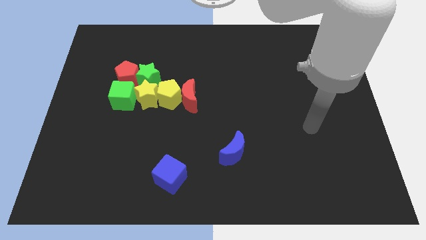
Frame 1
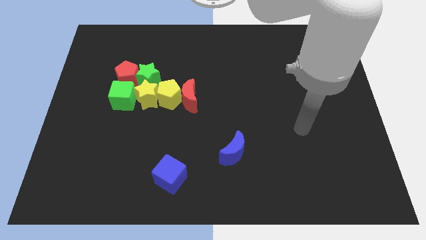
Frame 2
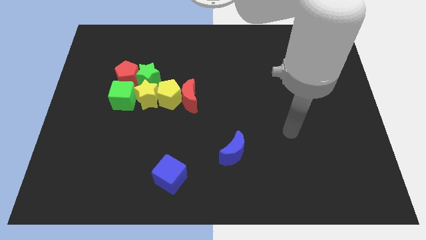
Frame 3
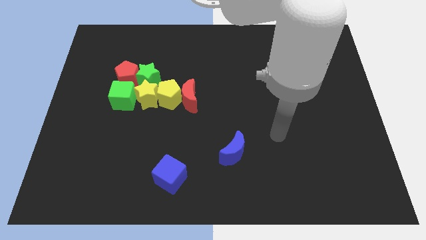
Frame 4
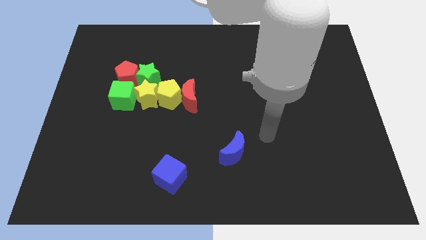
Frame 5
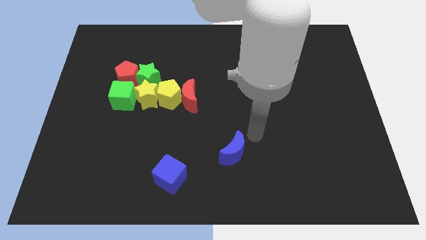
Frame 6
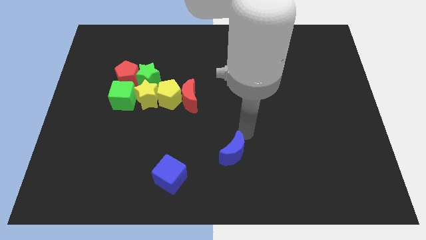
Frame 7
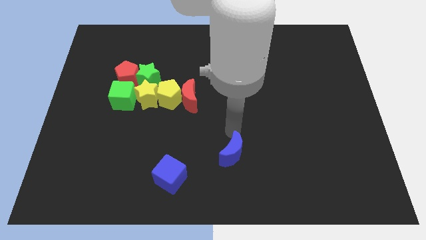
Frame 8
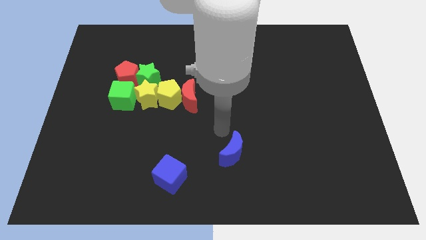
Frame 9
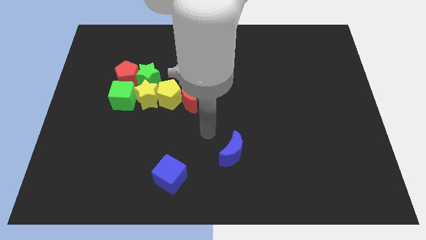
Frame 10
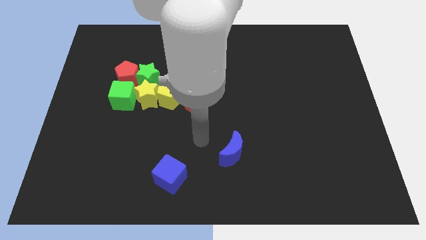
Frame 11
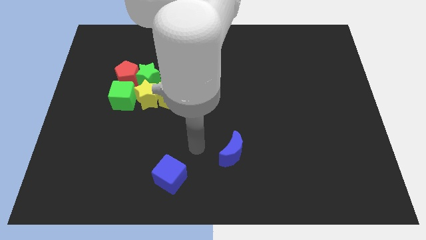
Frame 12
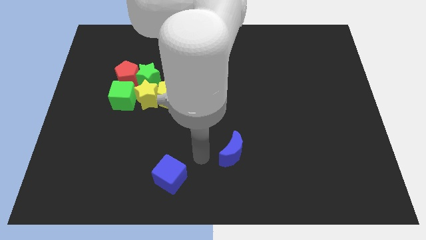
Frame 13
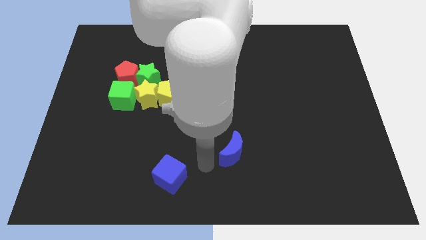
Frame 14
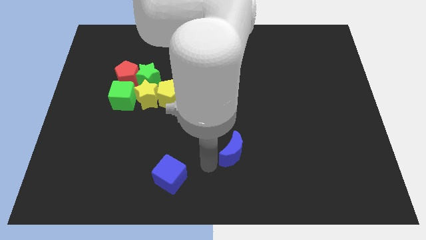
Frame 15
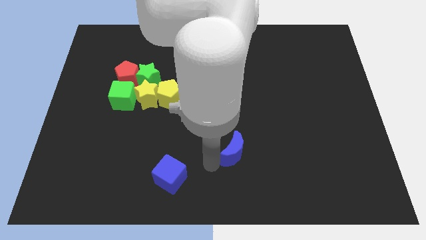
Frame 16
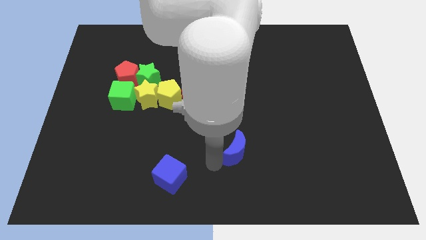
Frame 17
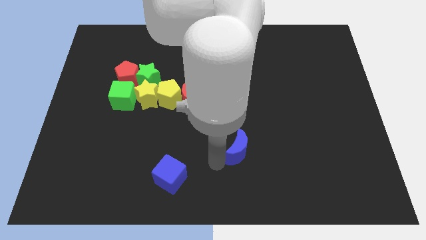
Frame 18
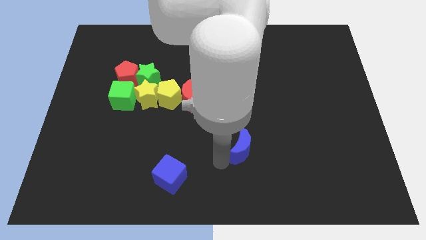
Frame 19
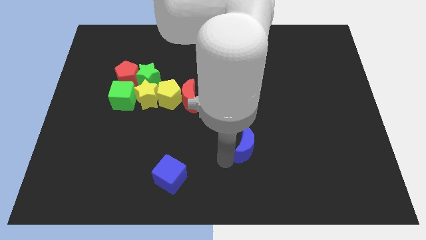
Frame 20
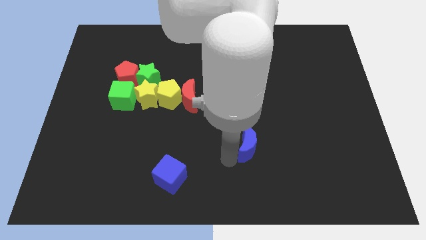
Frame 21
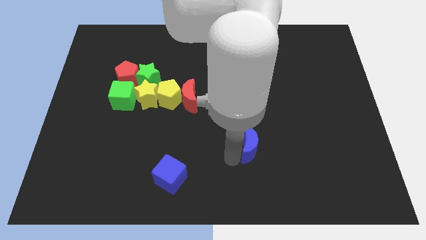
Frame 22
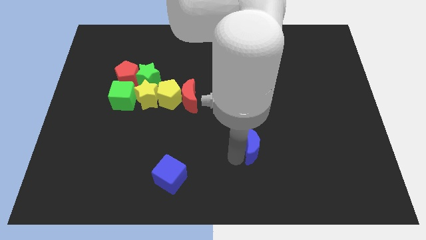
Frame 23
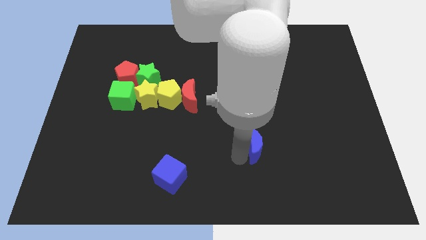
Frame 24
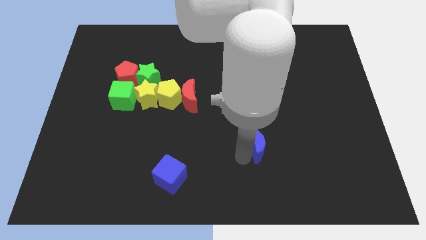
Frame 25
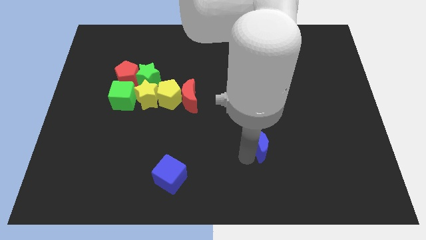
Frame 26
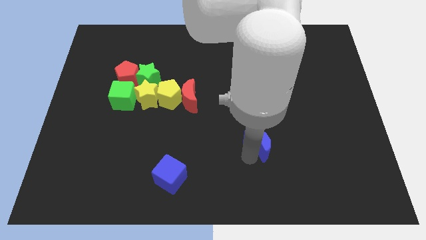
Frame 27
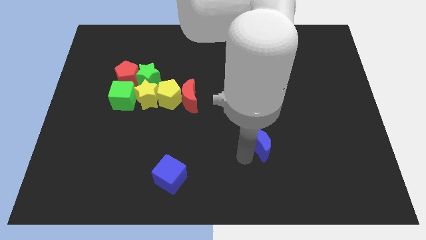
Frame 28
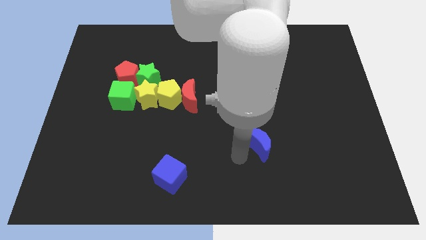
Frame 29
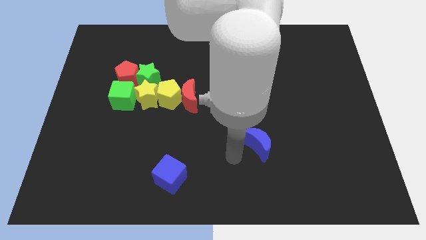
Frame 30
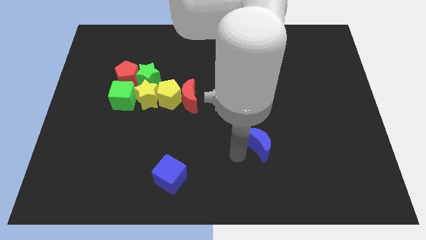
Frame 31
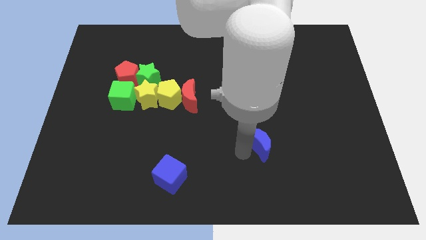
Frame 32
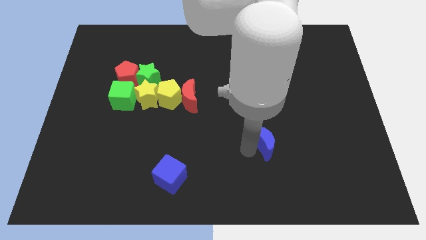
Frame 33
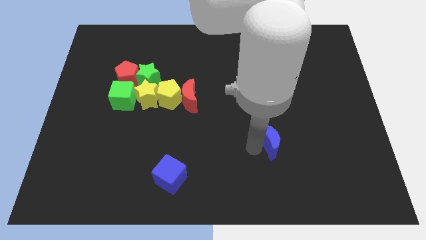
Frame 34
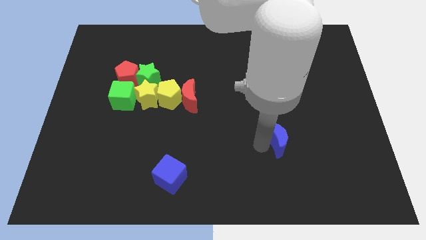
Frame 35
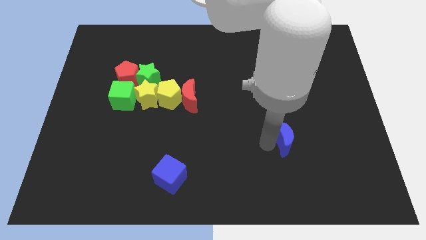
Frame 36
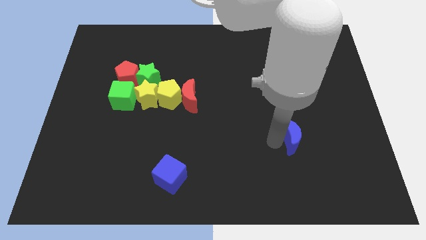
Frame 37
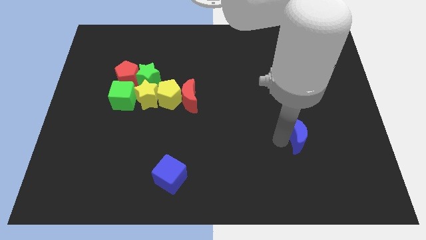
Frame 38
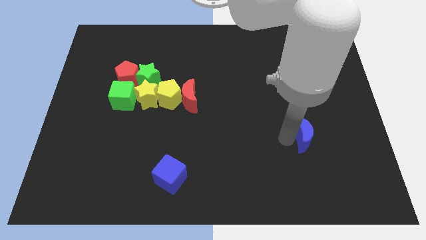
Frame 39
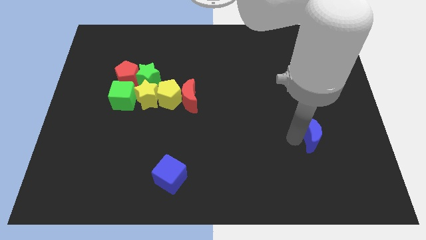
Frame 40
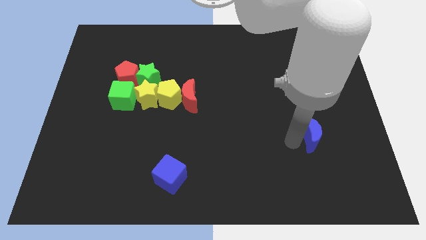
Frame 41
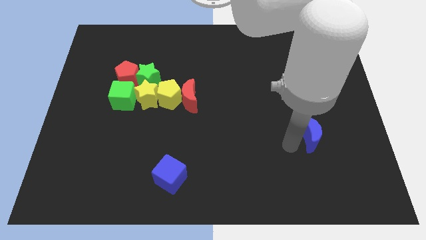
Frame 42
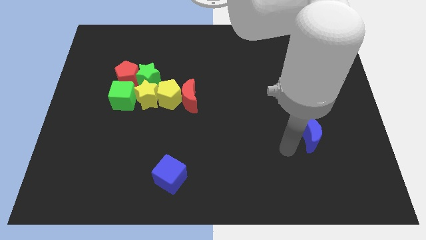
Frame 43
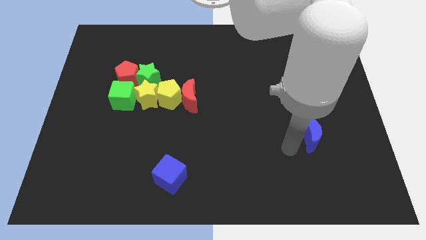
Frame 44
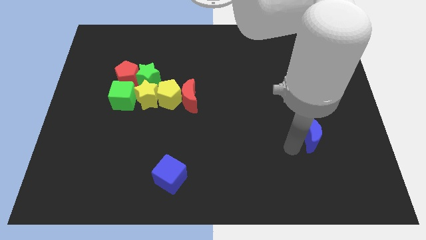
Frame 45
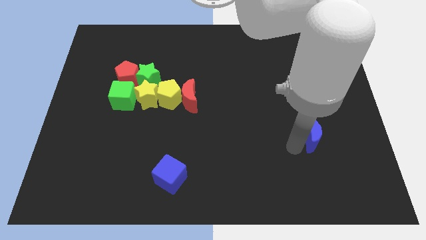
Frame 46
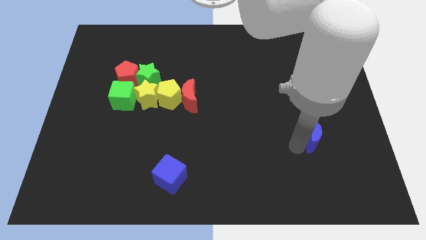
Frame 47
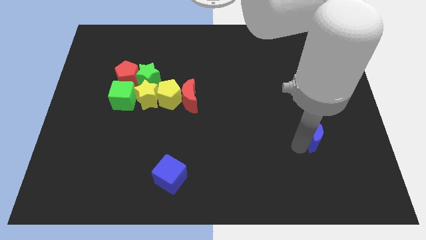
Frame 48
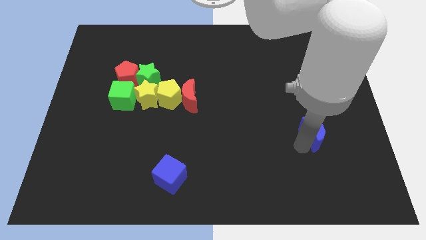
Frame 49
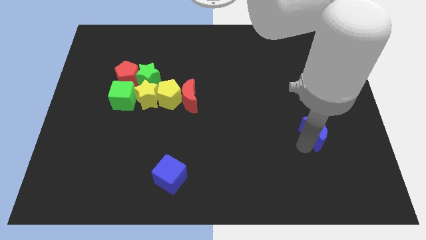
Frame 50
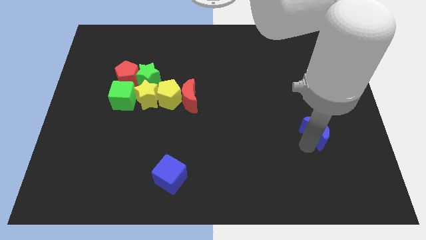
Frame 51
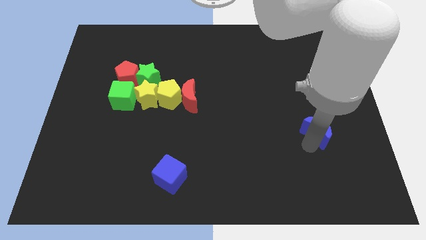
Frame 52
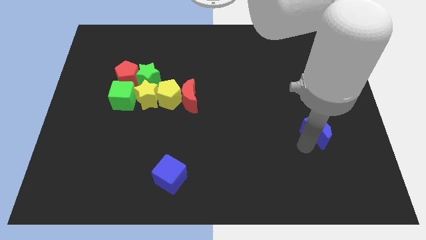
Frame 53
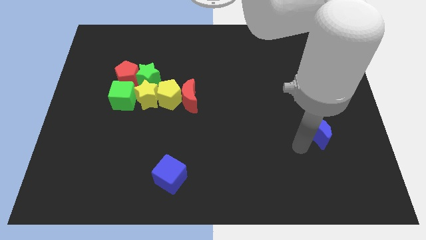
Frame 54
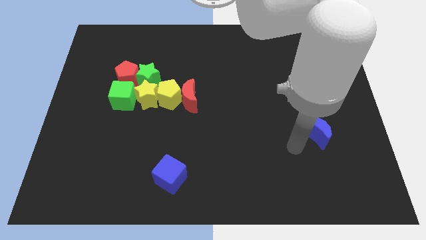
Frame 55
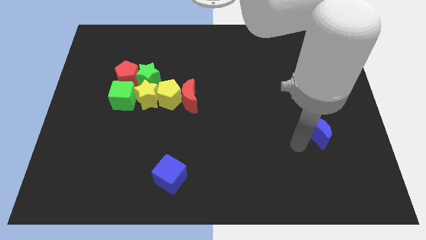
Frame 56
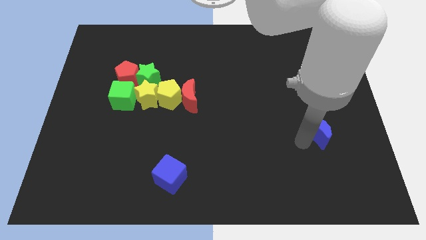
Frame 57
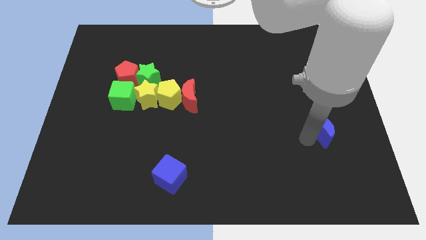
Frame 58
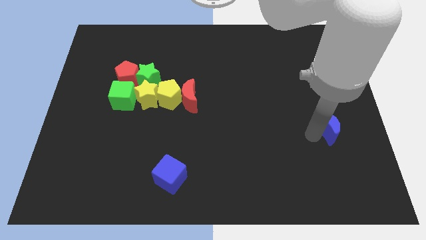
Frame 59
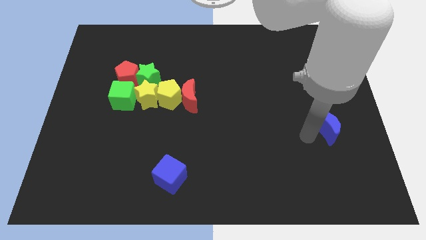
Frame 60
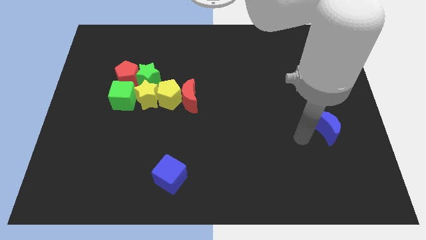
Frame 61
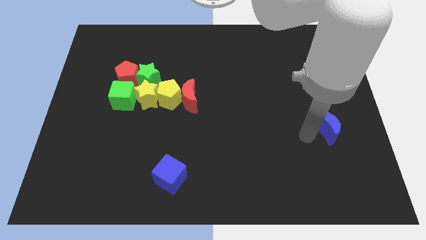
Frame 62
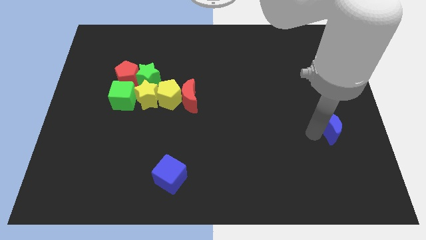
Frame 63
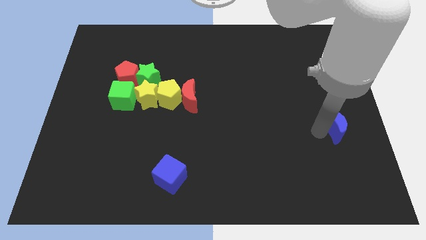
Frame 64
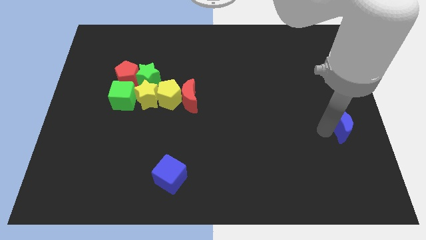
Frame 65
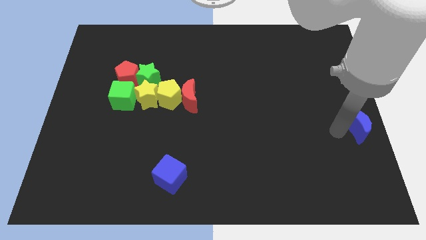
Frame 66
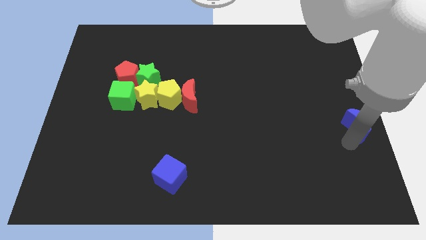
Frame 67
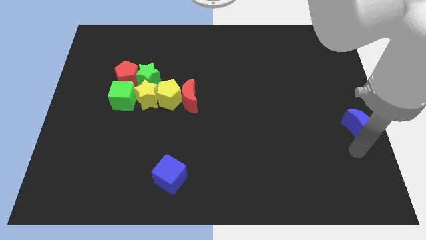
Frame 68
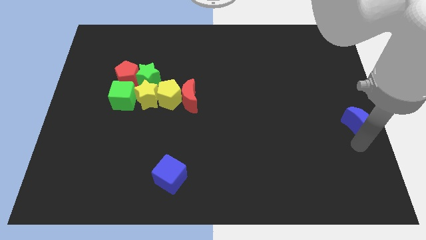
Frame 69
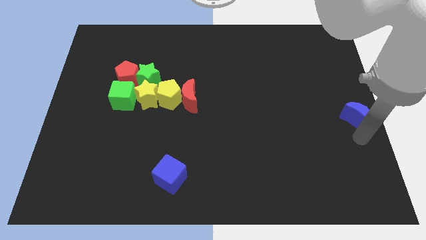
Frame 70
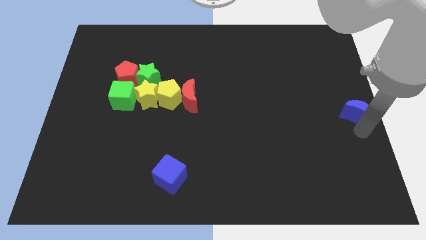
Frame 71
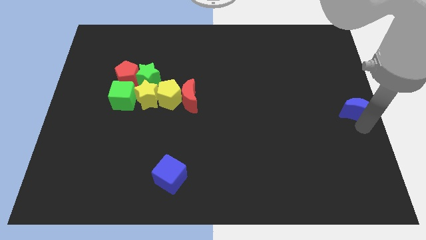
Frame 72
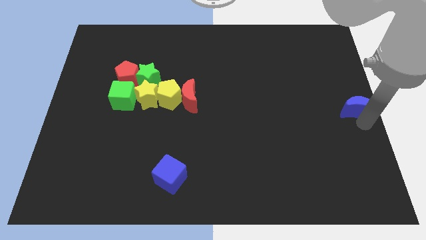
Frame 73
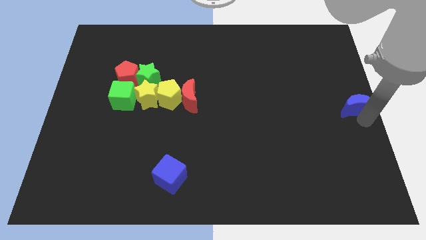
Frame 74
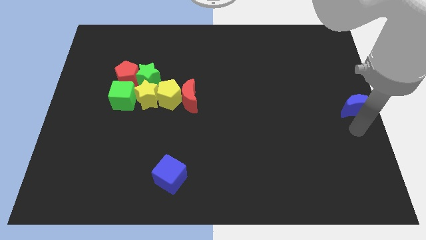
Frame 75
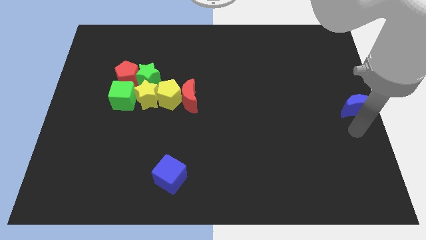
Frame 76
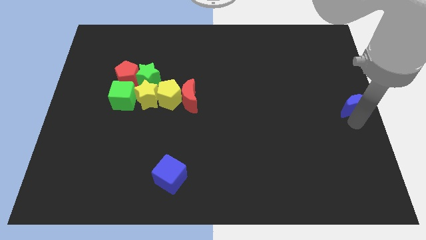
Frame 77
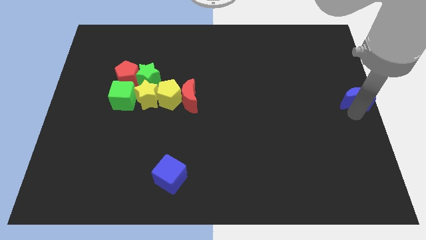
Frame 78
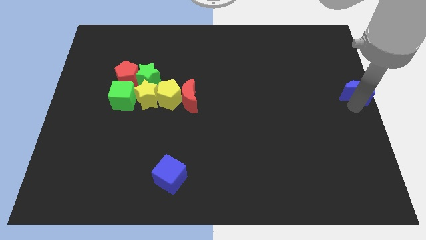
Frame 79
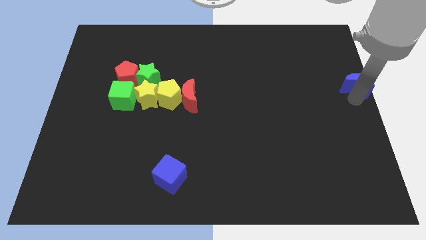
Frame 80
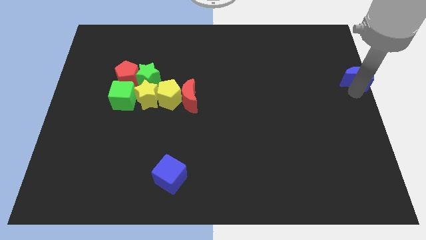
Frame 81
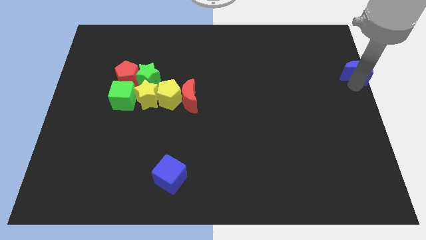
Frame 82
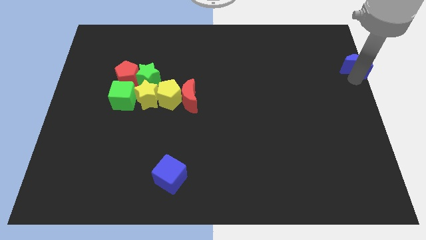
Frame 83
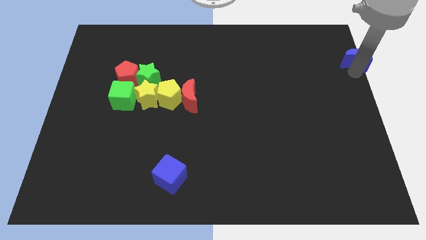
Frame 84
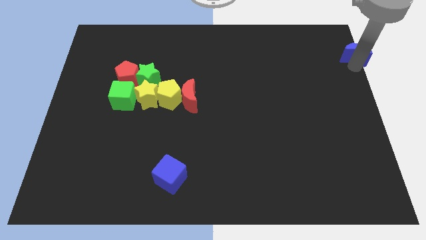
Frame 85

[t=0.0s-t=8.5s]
move the blue moon to the top right corner
